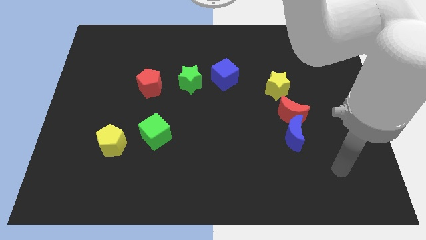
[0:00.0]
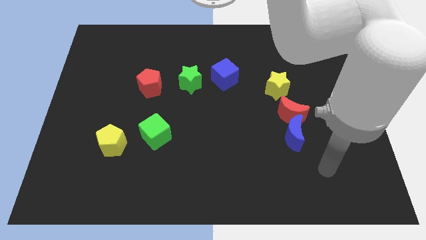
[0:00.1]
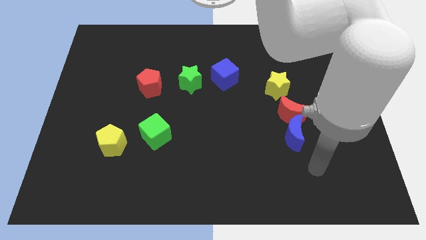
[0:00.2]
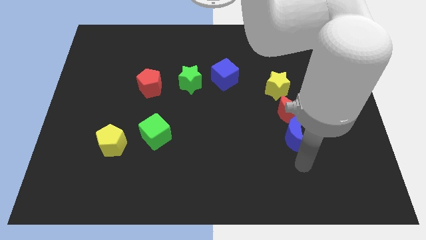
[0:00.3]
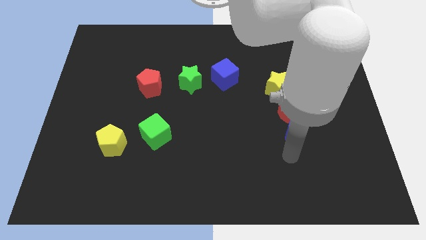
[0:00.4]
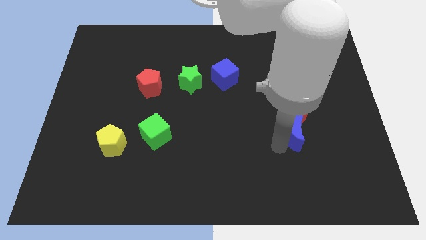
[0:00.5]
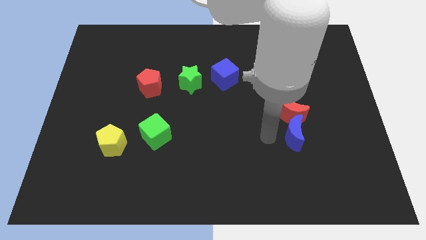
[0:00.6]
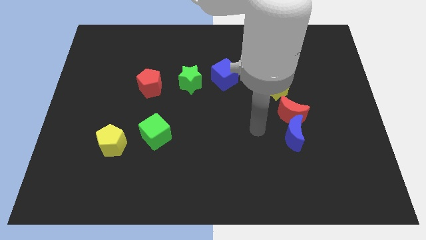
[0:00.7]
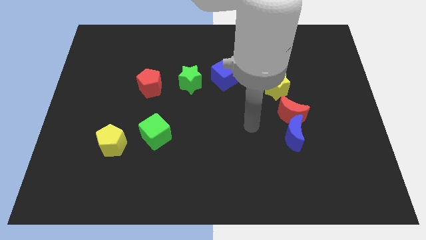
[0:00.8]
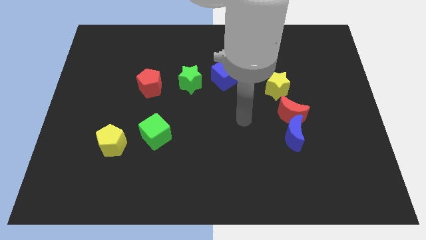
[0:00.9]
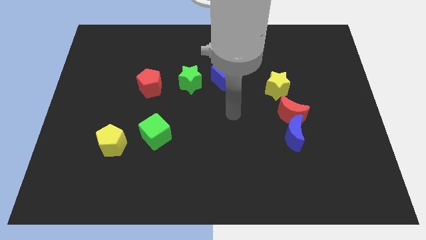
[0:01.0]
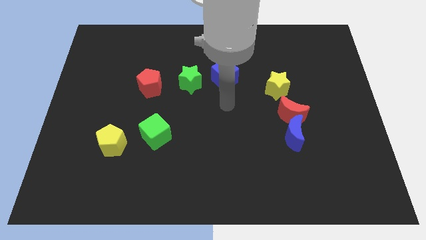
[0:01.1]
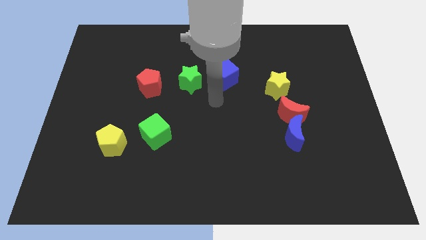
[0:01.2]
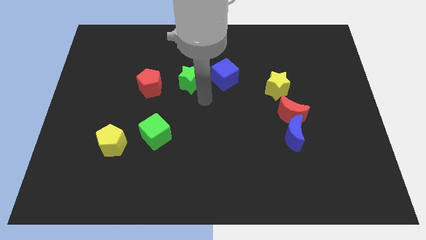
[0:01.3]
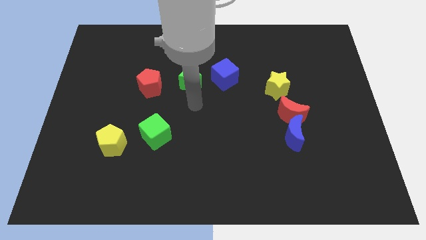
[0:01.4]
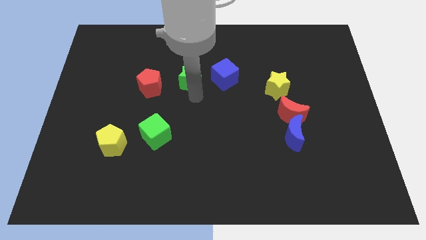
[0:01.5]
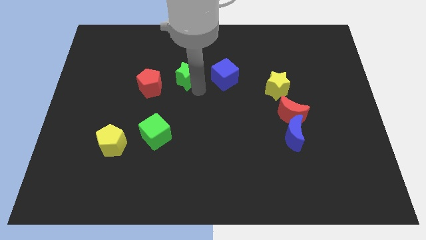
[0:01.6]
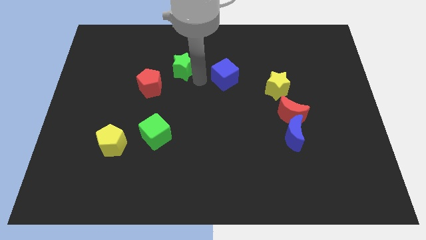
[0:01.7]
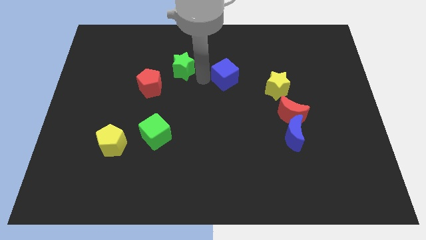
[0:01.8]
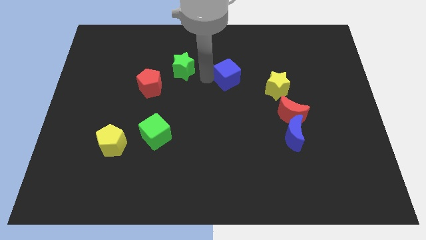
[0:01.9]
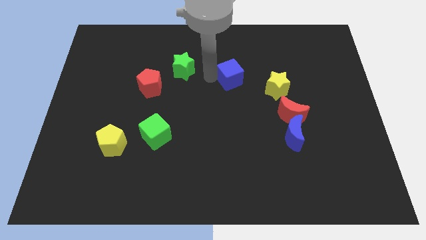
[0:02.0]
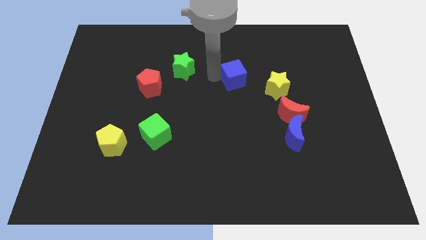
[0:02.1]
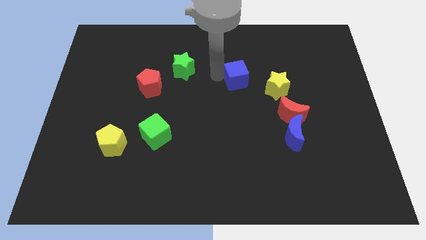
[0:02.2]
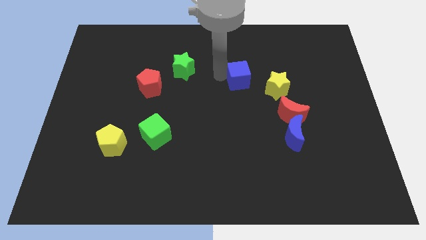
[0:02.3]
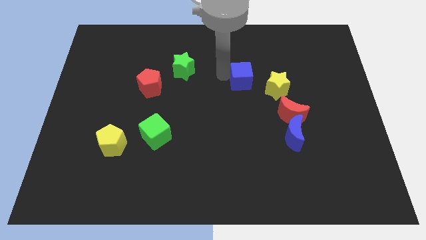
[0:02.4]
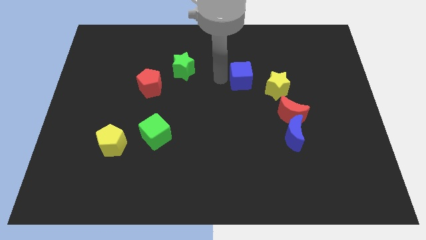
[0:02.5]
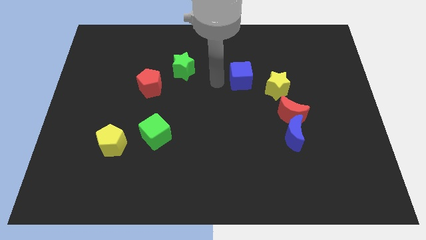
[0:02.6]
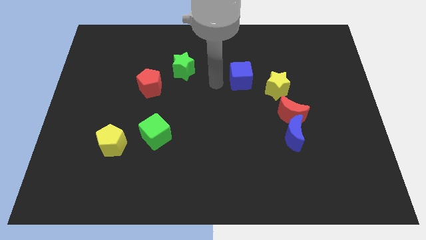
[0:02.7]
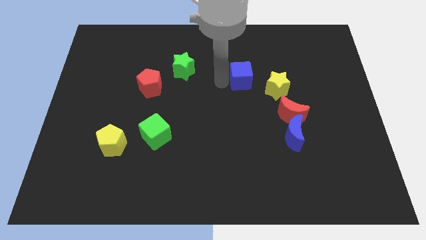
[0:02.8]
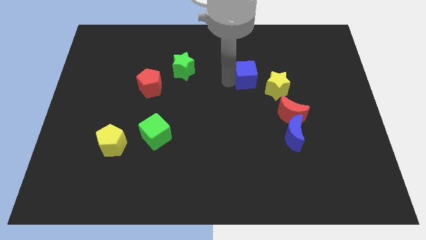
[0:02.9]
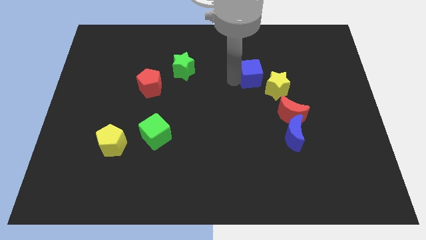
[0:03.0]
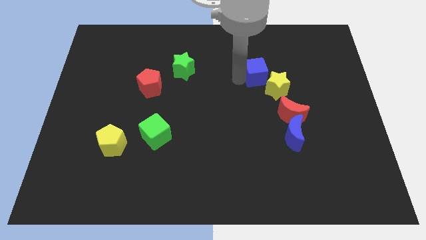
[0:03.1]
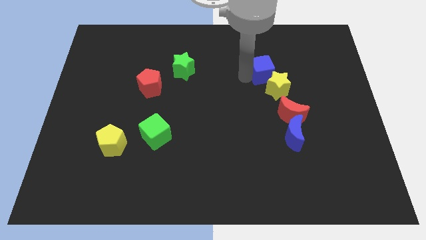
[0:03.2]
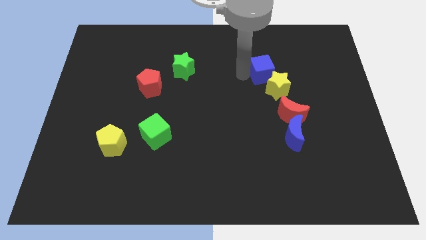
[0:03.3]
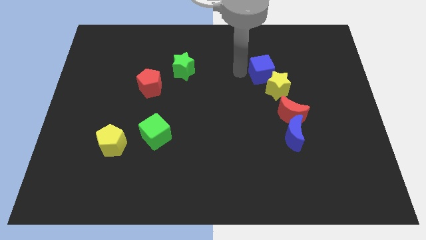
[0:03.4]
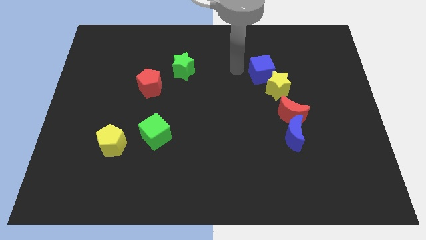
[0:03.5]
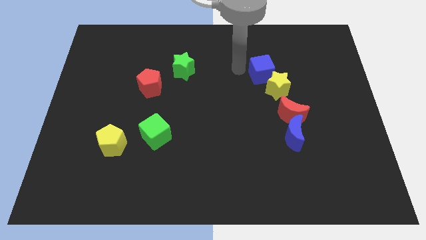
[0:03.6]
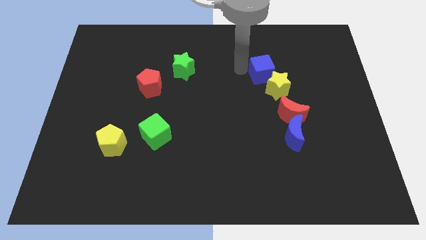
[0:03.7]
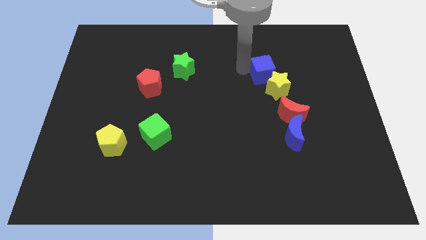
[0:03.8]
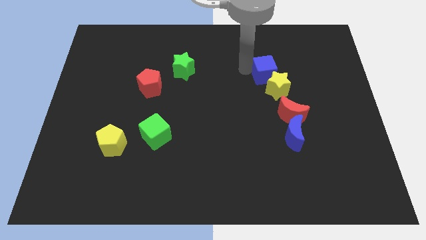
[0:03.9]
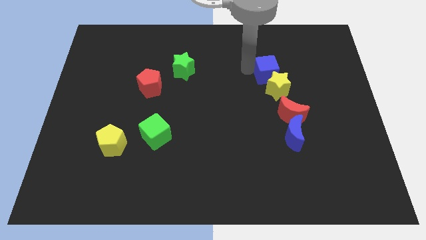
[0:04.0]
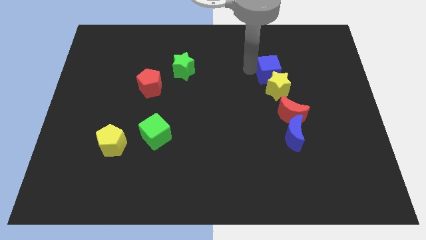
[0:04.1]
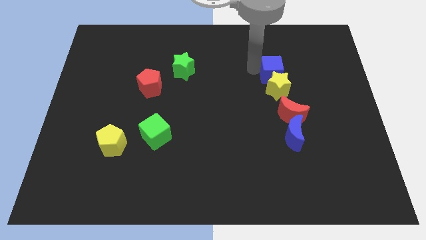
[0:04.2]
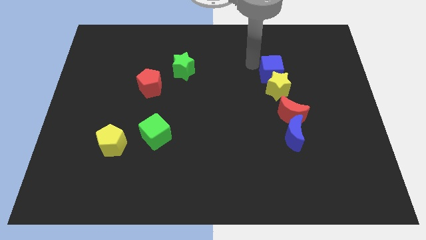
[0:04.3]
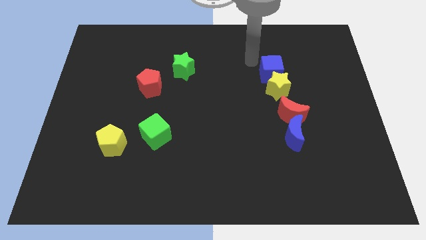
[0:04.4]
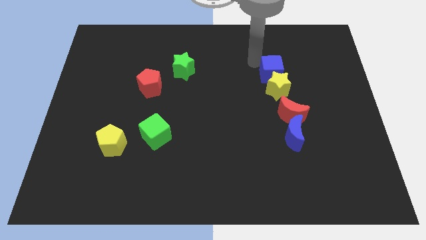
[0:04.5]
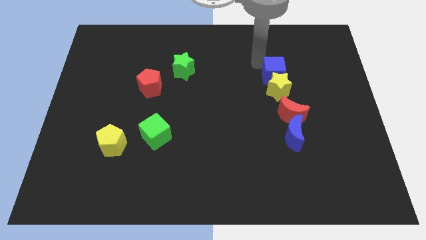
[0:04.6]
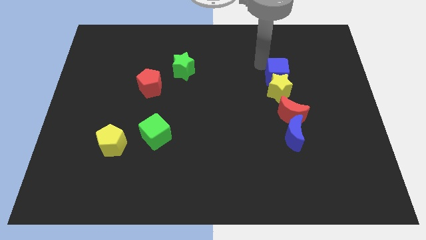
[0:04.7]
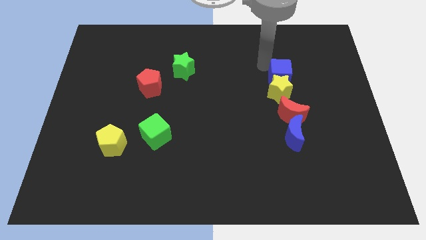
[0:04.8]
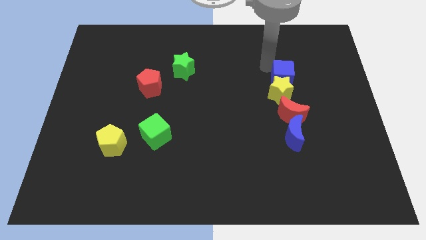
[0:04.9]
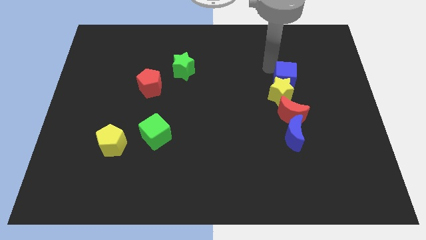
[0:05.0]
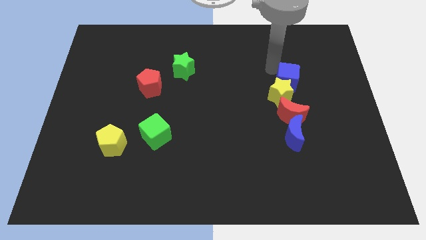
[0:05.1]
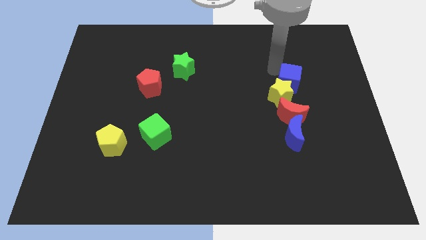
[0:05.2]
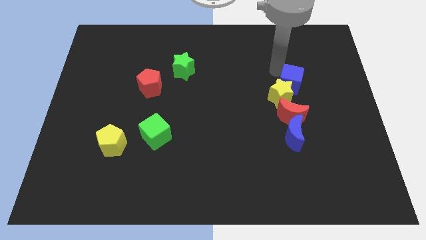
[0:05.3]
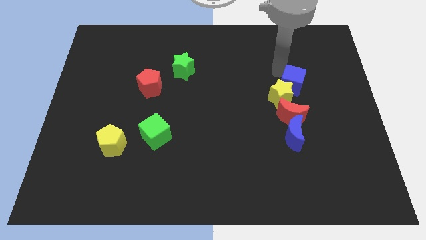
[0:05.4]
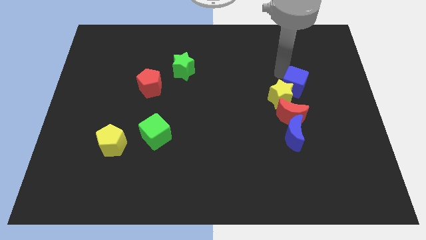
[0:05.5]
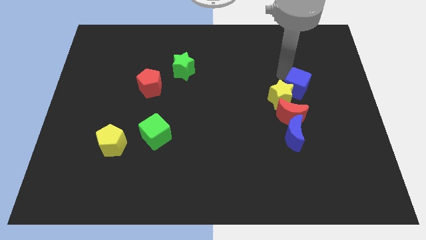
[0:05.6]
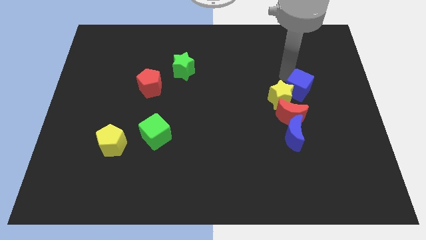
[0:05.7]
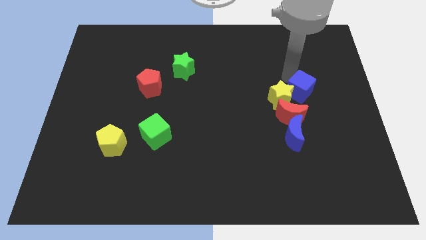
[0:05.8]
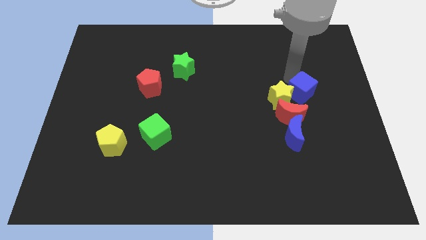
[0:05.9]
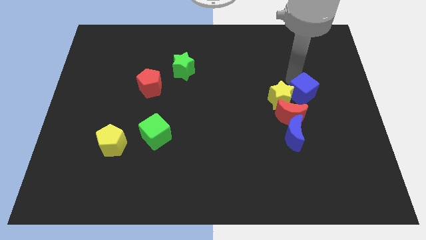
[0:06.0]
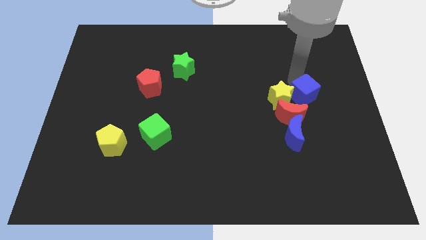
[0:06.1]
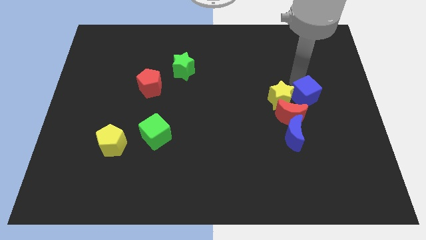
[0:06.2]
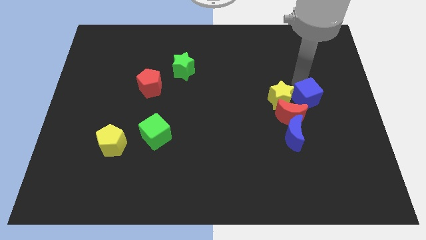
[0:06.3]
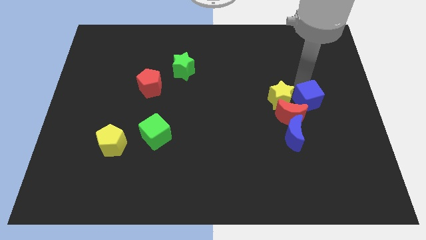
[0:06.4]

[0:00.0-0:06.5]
push the blue cube diagonally up and to the right of the blue moon
